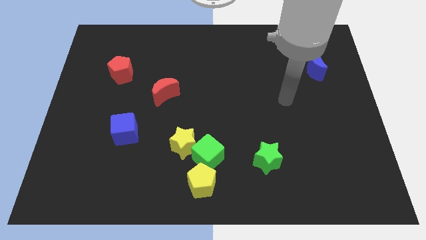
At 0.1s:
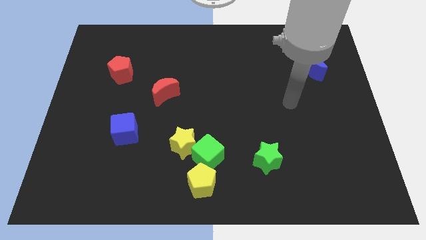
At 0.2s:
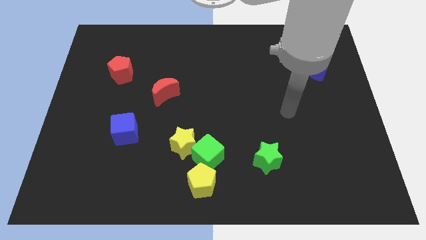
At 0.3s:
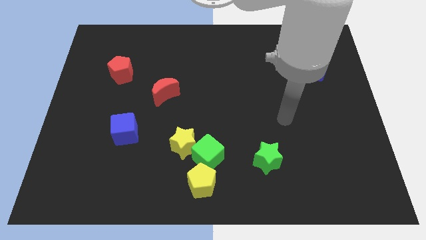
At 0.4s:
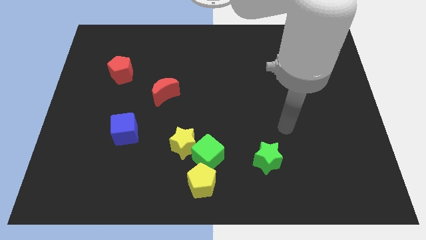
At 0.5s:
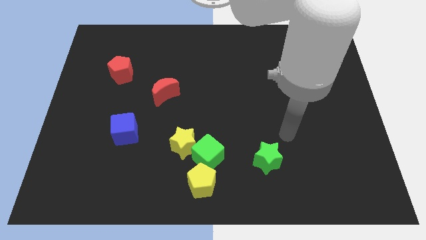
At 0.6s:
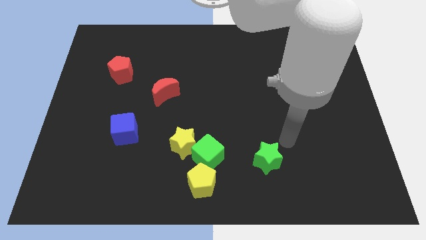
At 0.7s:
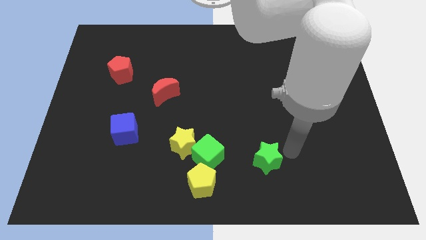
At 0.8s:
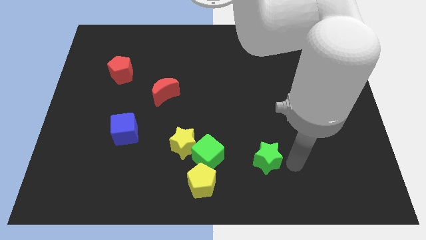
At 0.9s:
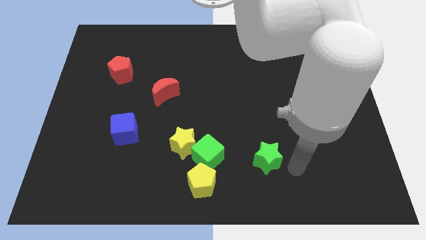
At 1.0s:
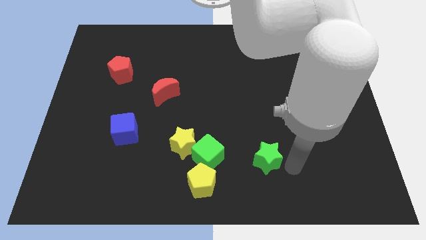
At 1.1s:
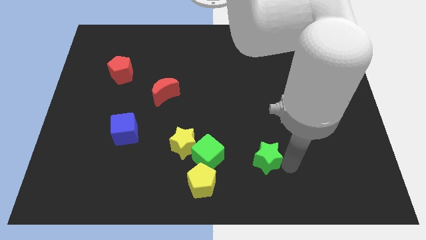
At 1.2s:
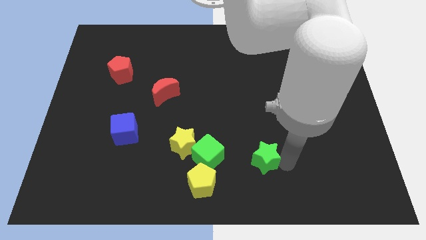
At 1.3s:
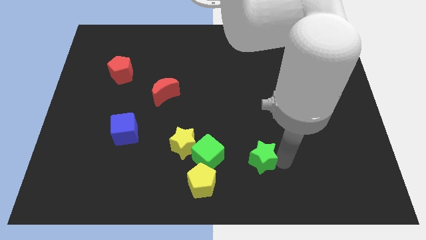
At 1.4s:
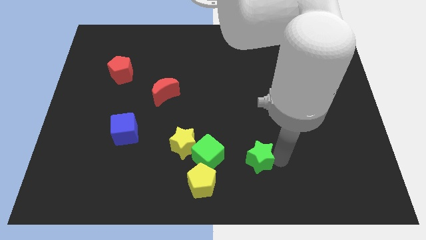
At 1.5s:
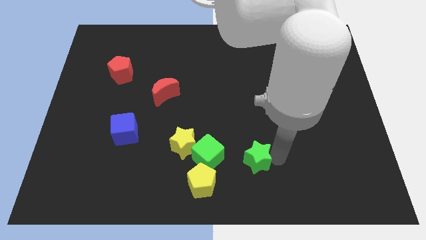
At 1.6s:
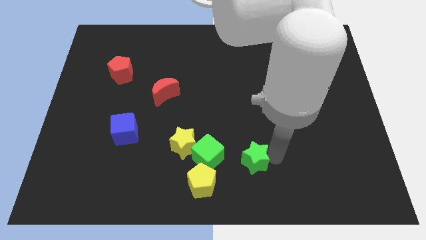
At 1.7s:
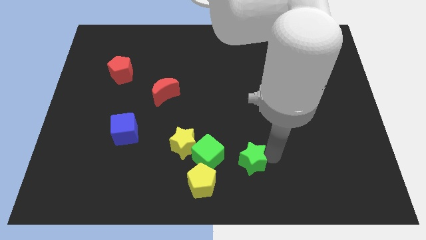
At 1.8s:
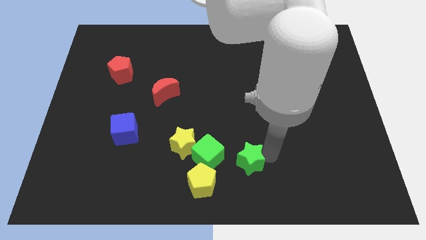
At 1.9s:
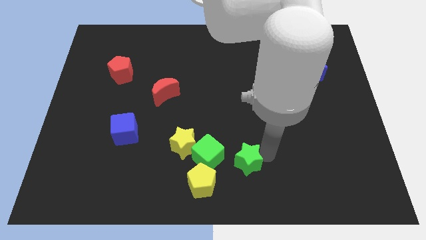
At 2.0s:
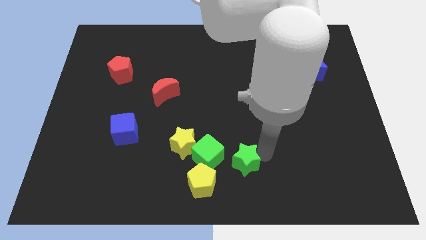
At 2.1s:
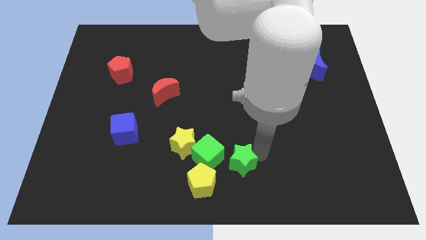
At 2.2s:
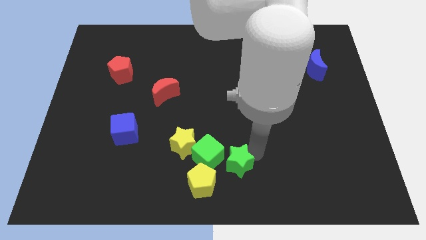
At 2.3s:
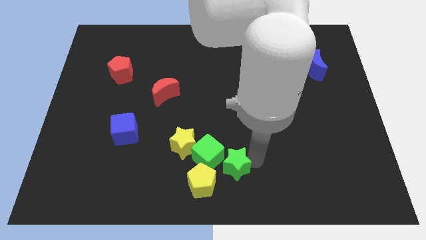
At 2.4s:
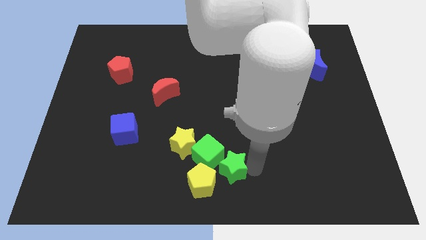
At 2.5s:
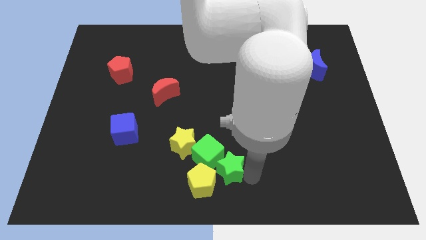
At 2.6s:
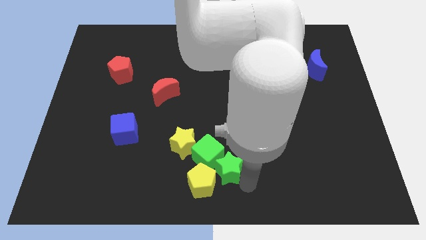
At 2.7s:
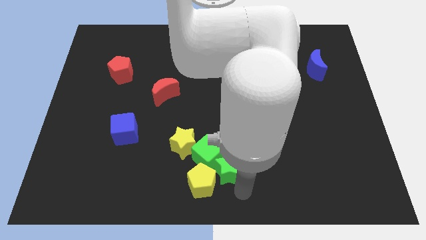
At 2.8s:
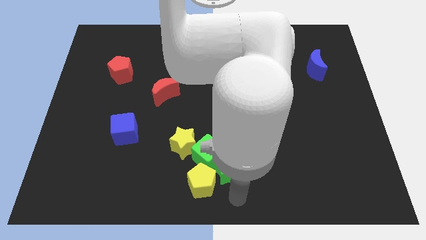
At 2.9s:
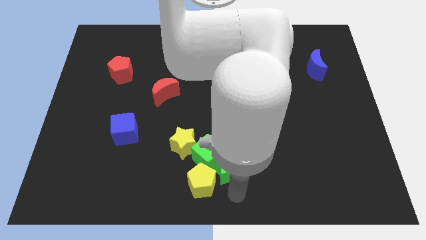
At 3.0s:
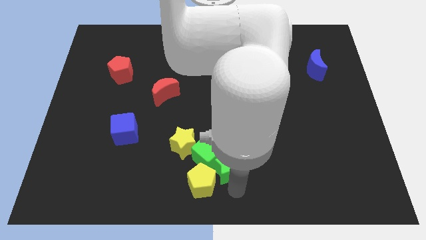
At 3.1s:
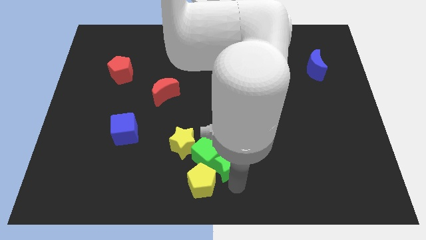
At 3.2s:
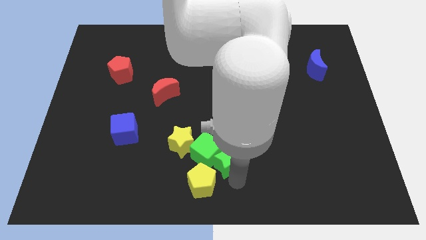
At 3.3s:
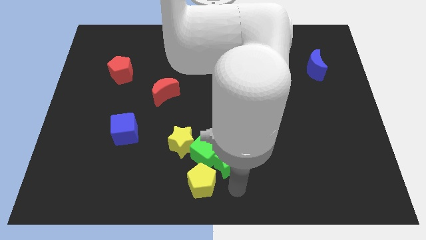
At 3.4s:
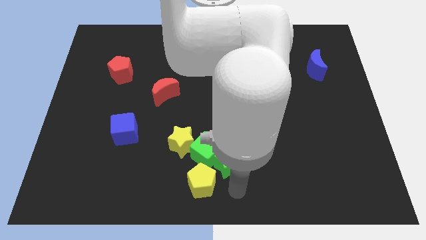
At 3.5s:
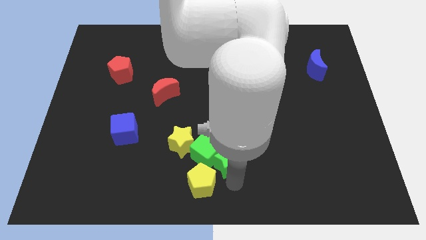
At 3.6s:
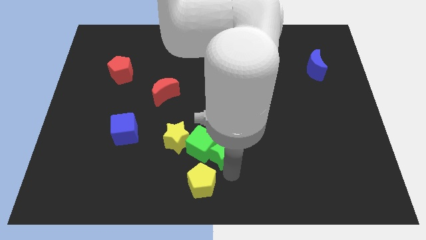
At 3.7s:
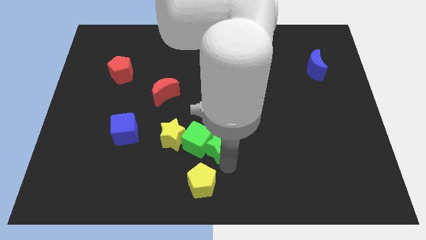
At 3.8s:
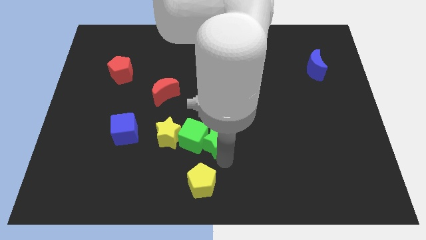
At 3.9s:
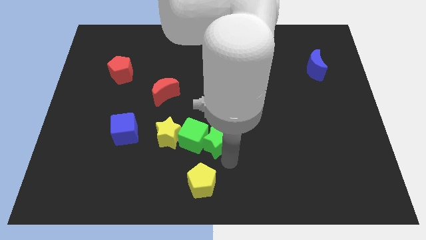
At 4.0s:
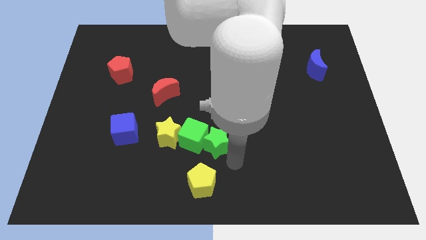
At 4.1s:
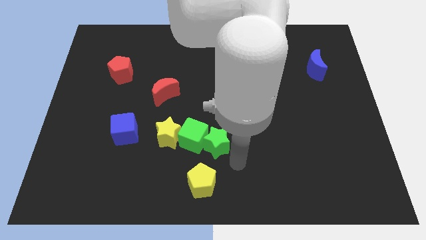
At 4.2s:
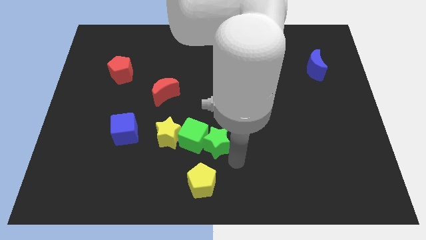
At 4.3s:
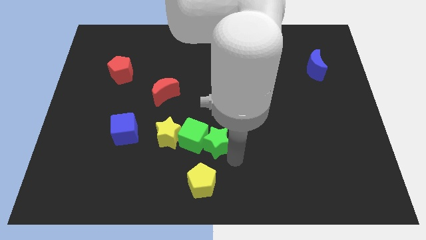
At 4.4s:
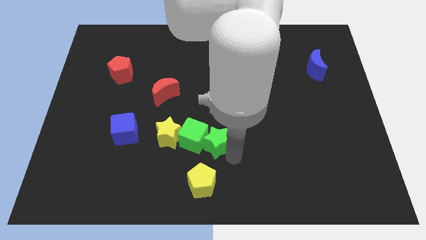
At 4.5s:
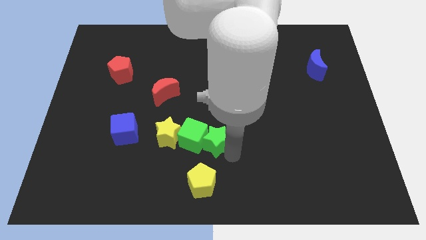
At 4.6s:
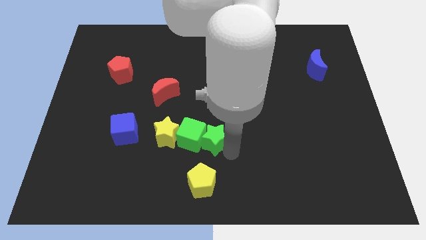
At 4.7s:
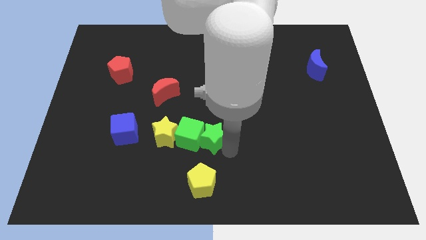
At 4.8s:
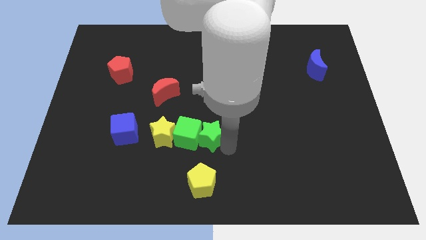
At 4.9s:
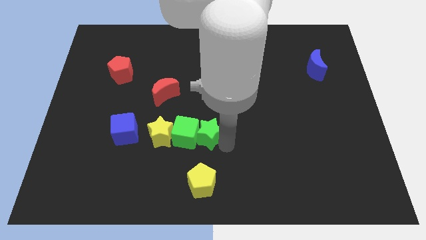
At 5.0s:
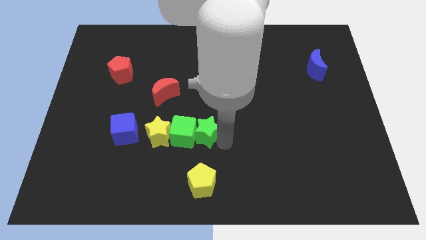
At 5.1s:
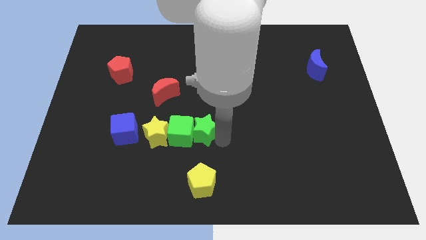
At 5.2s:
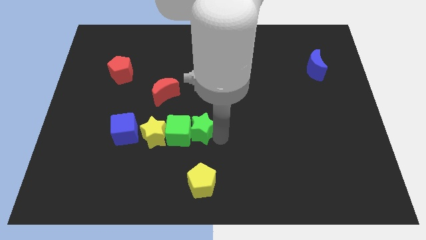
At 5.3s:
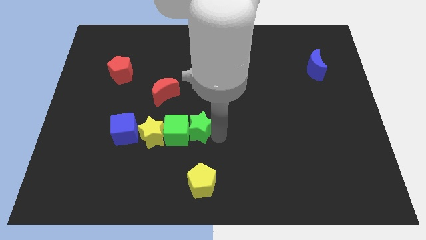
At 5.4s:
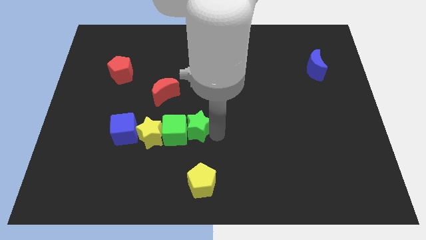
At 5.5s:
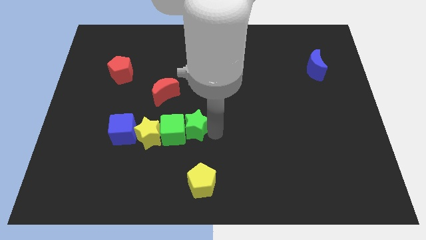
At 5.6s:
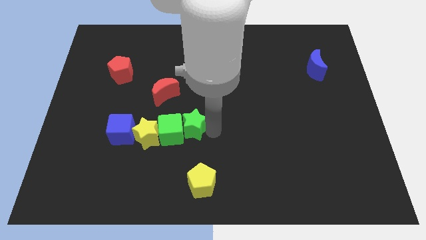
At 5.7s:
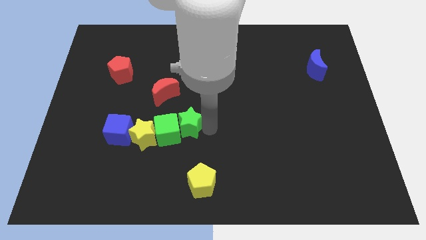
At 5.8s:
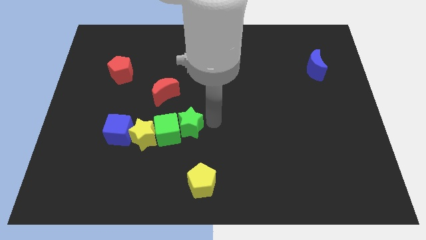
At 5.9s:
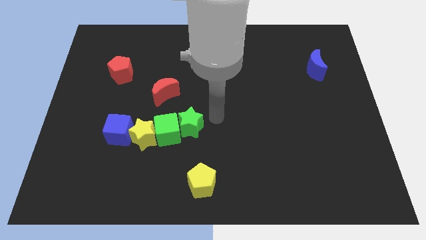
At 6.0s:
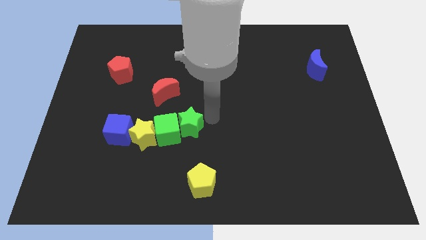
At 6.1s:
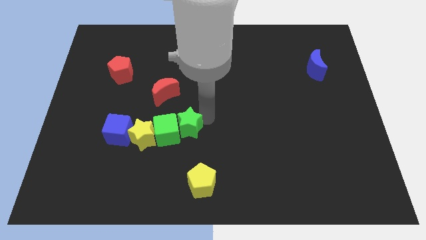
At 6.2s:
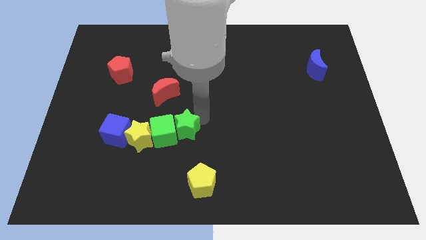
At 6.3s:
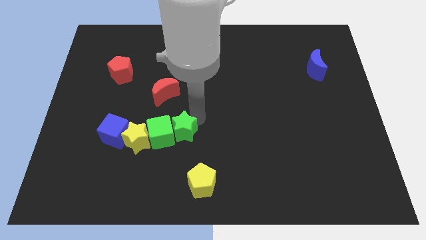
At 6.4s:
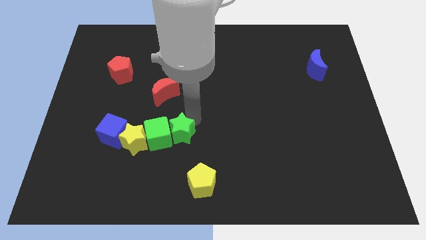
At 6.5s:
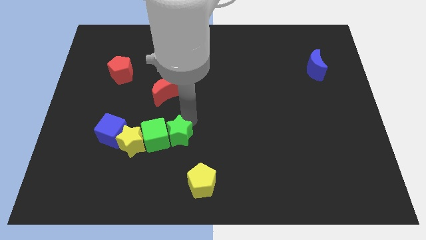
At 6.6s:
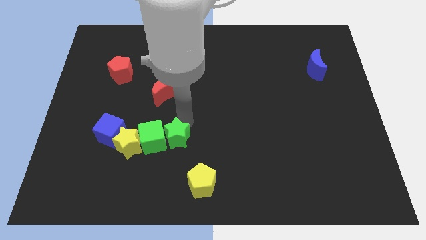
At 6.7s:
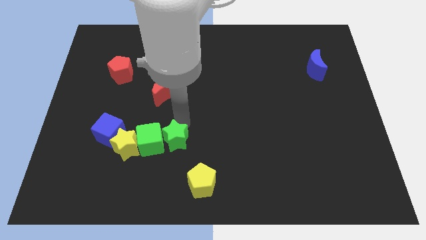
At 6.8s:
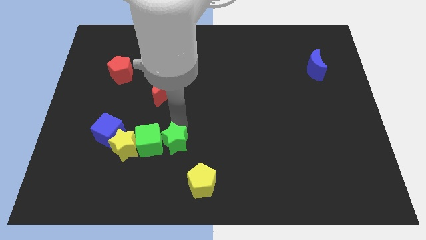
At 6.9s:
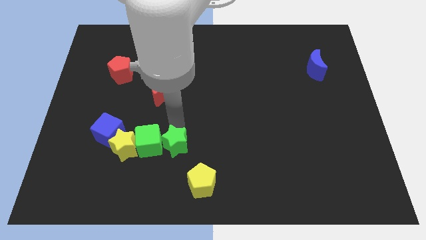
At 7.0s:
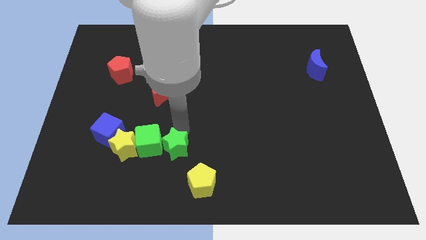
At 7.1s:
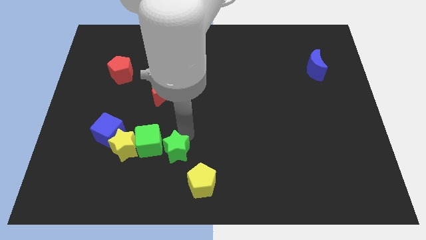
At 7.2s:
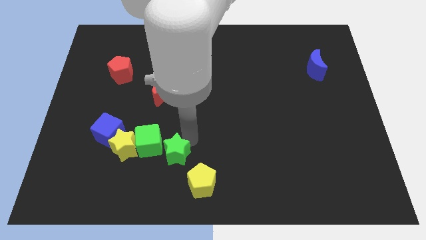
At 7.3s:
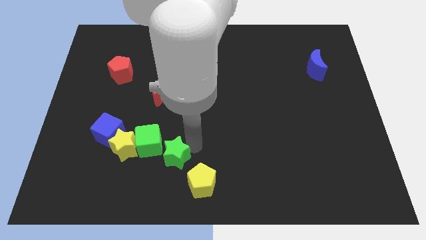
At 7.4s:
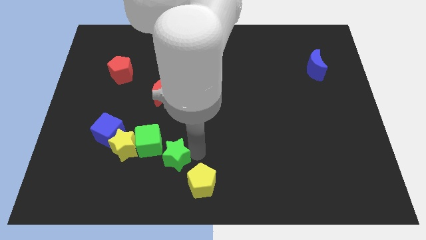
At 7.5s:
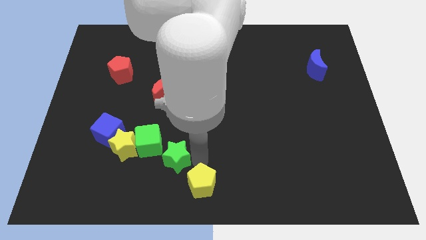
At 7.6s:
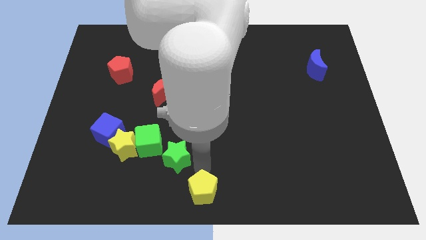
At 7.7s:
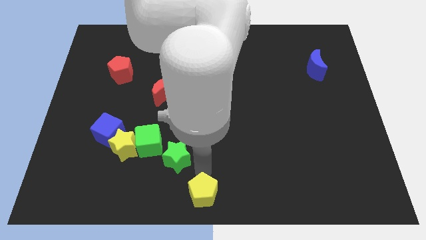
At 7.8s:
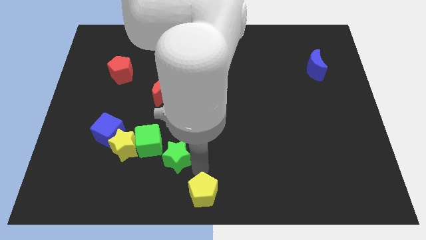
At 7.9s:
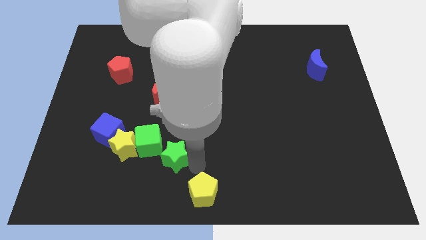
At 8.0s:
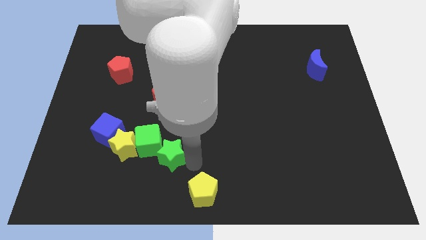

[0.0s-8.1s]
slide the green star left

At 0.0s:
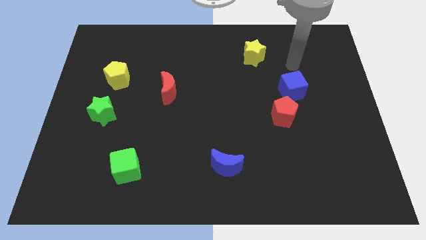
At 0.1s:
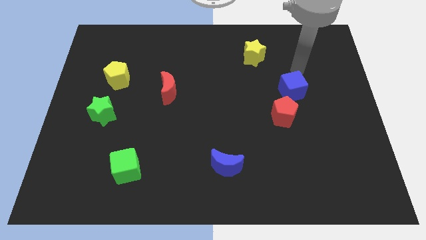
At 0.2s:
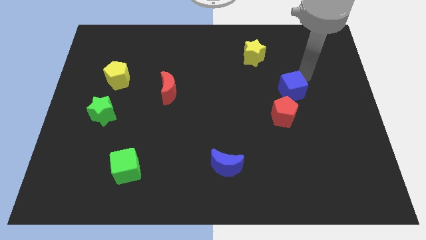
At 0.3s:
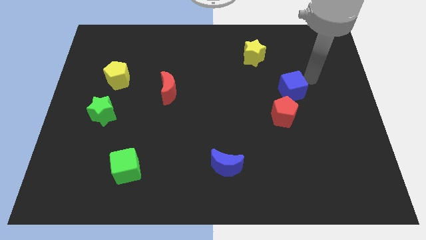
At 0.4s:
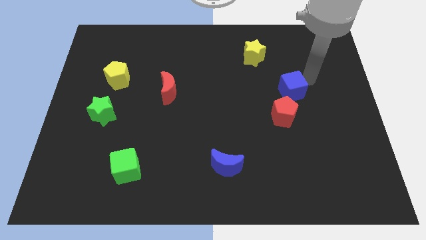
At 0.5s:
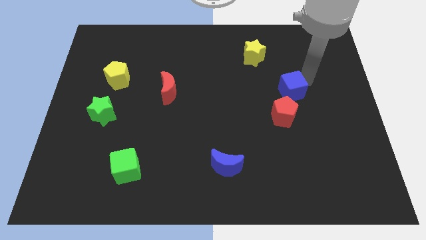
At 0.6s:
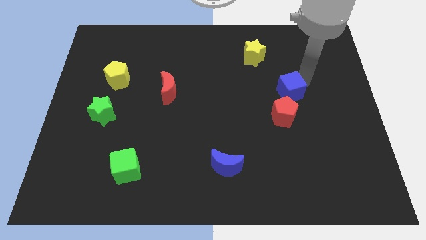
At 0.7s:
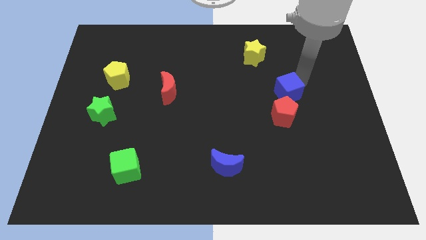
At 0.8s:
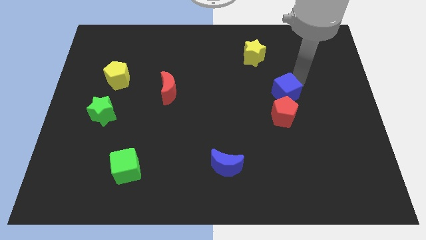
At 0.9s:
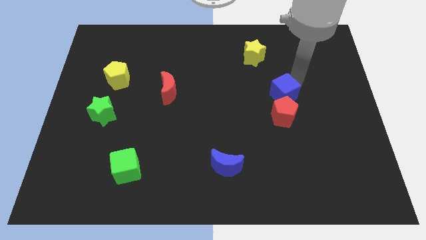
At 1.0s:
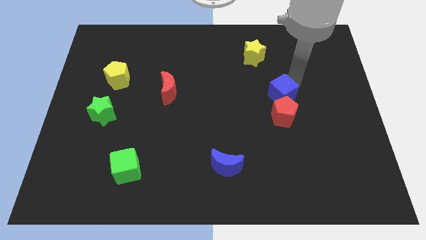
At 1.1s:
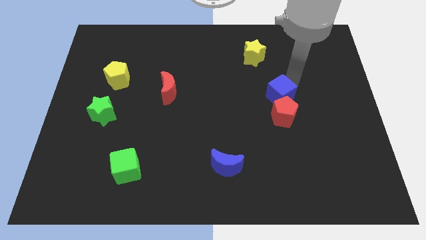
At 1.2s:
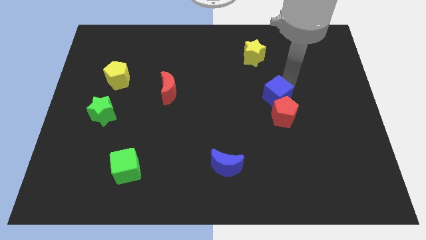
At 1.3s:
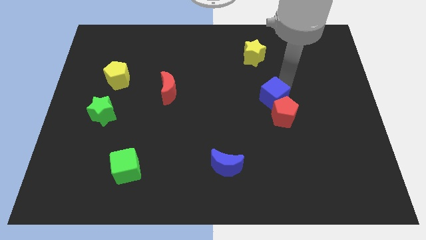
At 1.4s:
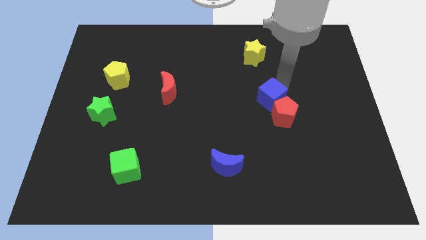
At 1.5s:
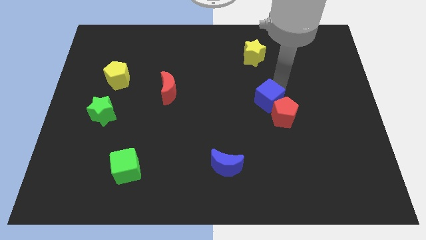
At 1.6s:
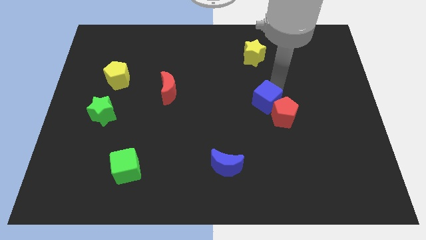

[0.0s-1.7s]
slide the blue cube somewhat downwards and left
